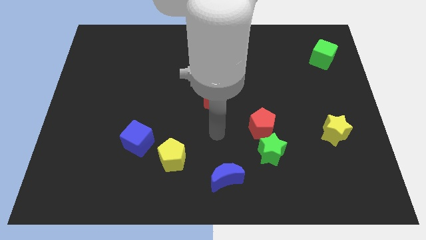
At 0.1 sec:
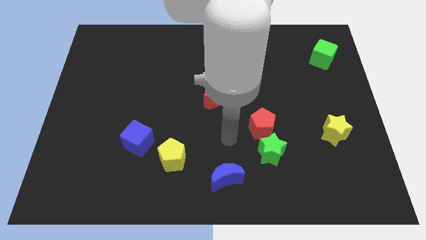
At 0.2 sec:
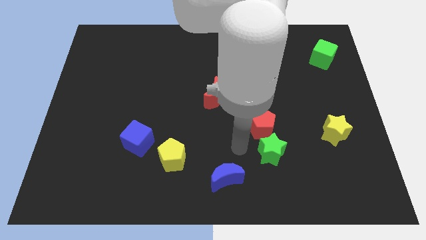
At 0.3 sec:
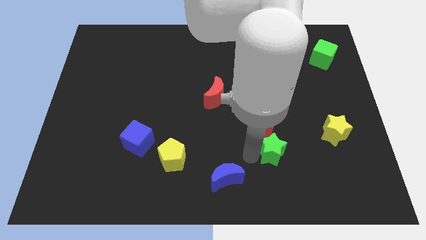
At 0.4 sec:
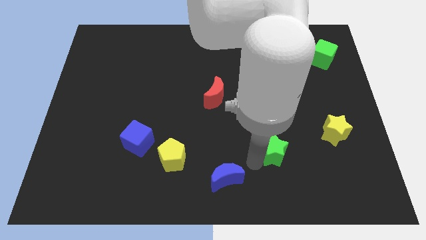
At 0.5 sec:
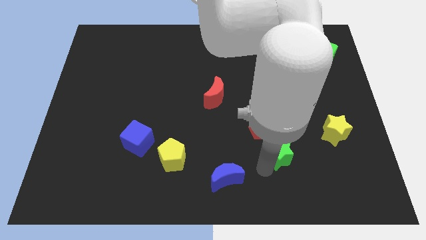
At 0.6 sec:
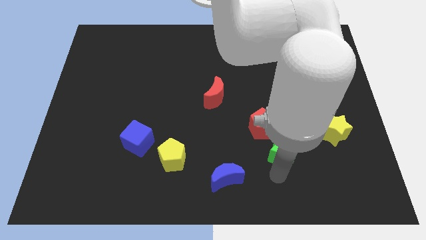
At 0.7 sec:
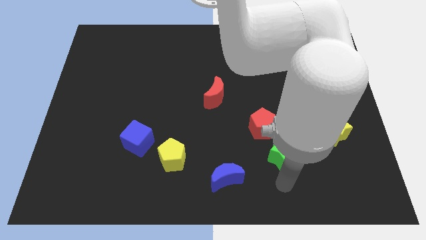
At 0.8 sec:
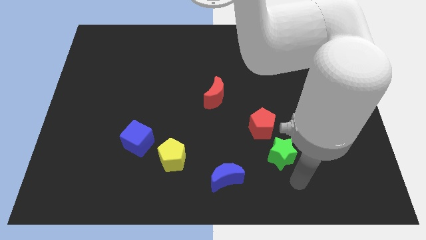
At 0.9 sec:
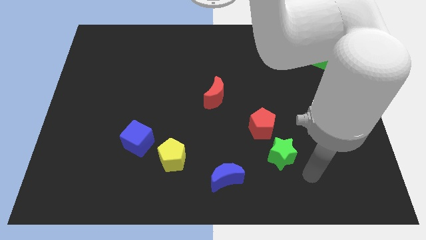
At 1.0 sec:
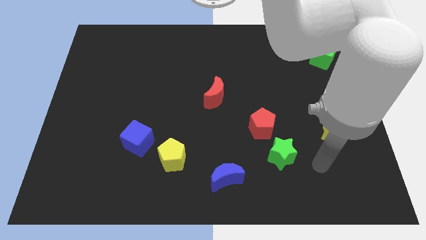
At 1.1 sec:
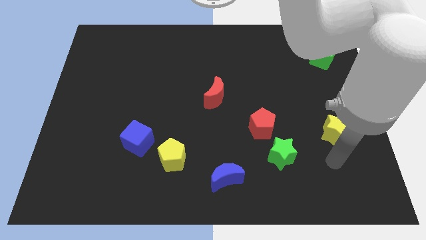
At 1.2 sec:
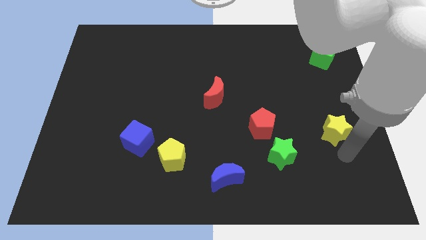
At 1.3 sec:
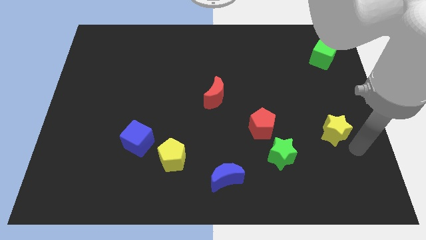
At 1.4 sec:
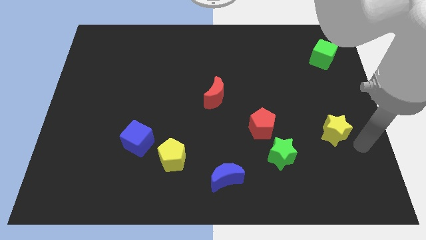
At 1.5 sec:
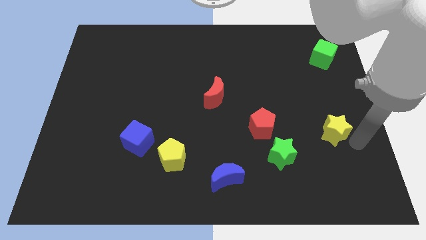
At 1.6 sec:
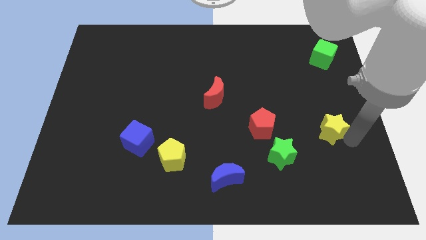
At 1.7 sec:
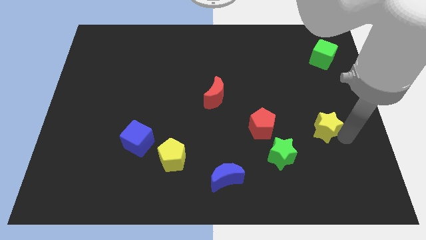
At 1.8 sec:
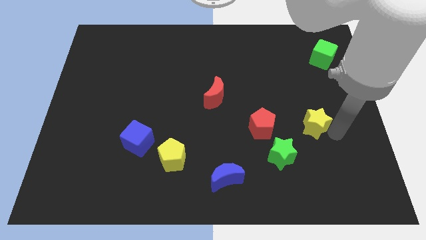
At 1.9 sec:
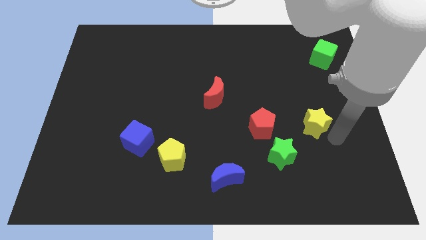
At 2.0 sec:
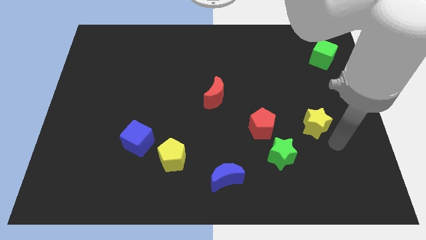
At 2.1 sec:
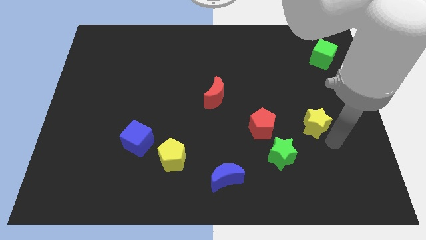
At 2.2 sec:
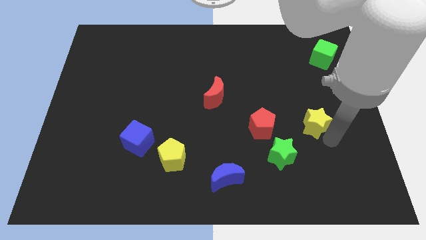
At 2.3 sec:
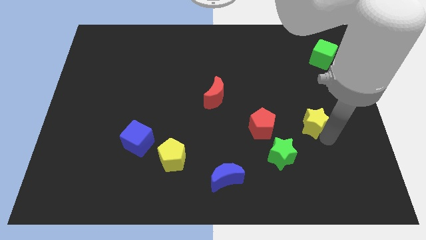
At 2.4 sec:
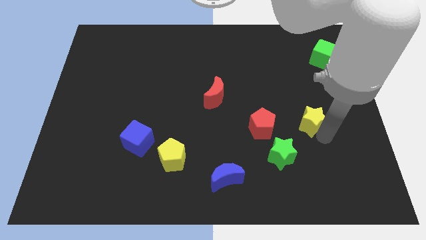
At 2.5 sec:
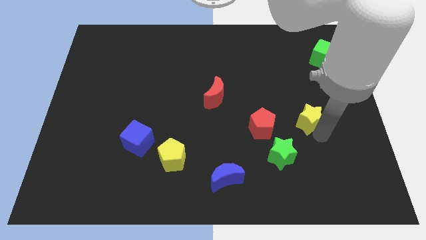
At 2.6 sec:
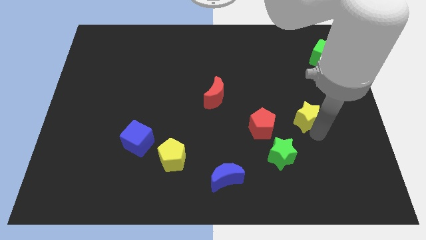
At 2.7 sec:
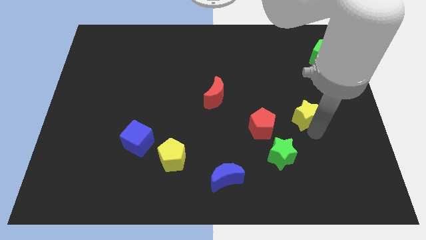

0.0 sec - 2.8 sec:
slightly slide the yellow star up and left

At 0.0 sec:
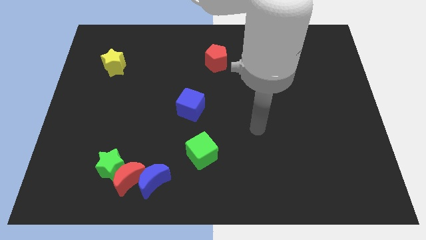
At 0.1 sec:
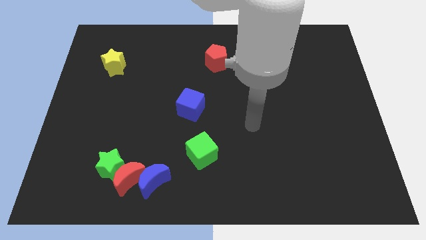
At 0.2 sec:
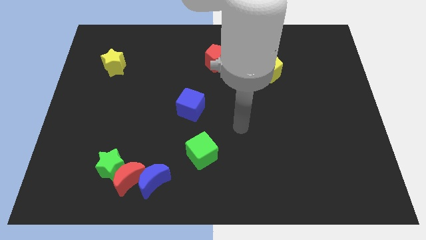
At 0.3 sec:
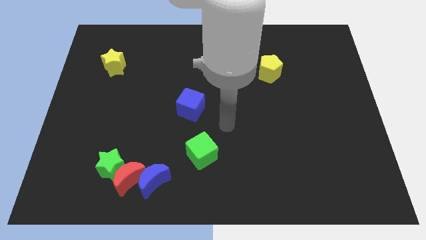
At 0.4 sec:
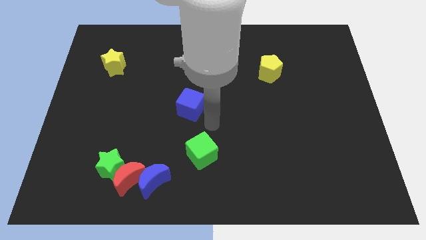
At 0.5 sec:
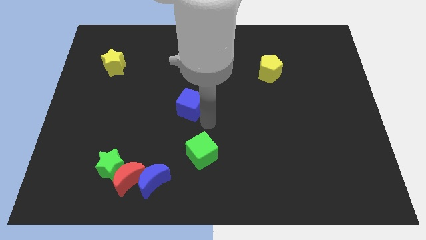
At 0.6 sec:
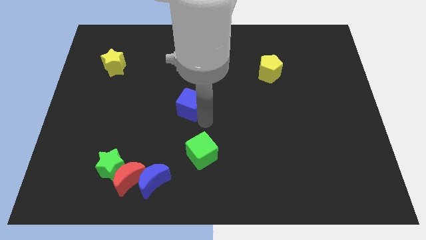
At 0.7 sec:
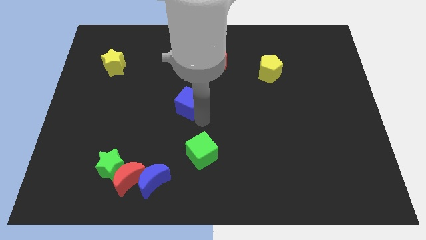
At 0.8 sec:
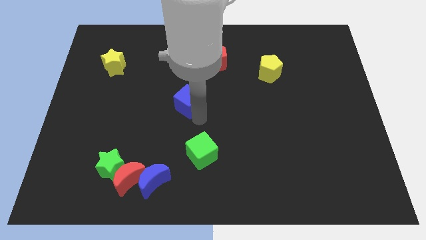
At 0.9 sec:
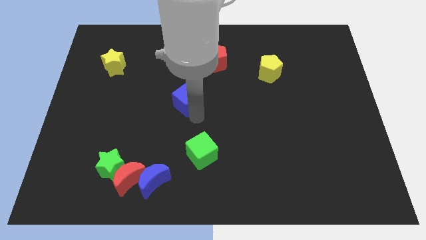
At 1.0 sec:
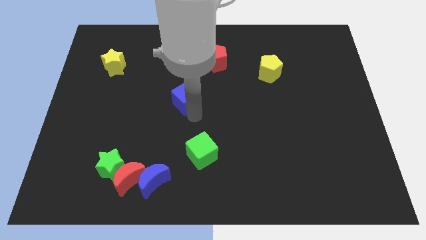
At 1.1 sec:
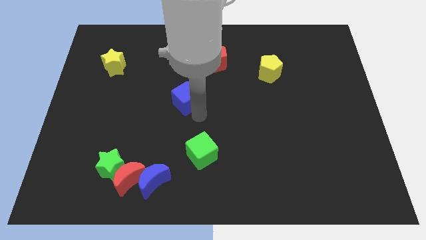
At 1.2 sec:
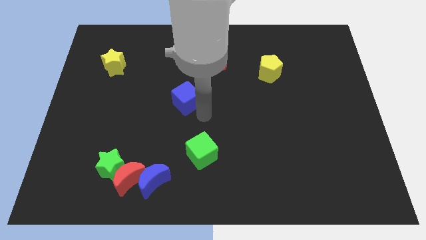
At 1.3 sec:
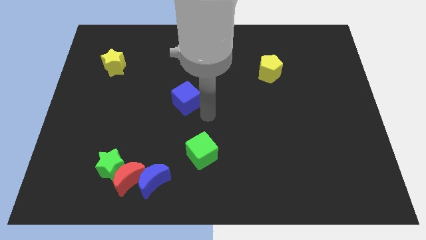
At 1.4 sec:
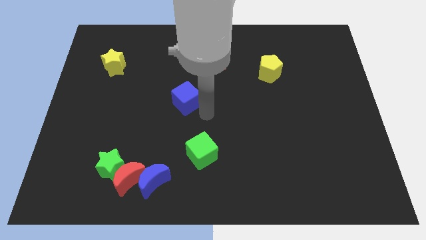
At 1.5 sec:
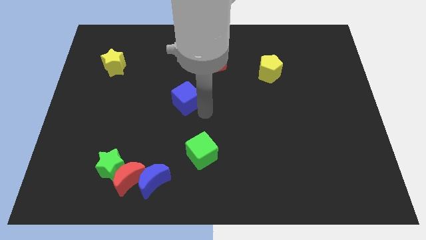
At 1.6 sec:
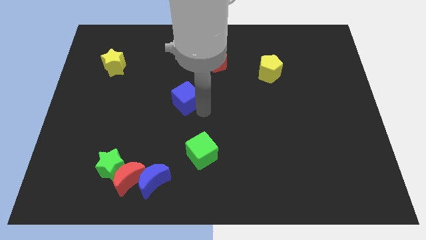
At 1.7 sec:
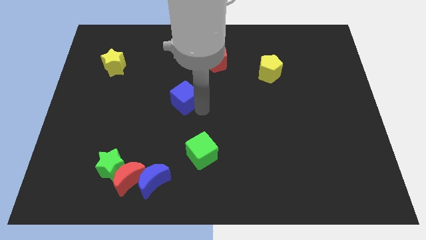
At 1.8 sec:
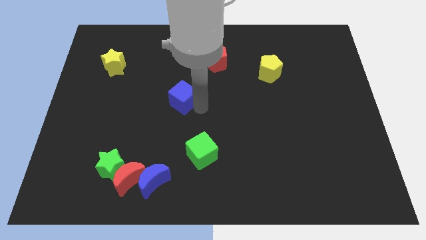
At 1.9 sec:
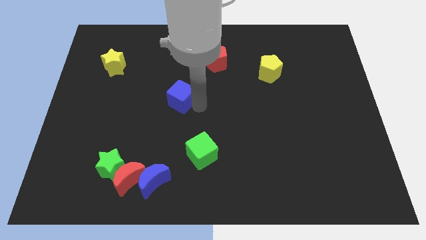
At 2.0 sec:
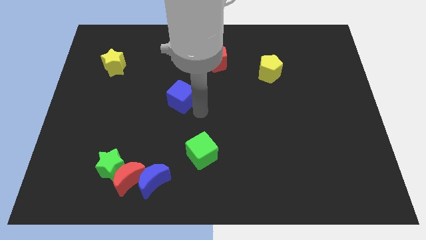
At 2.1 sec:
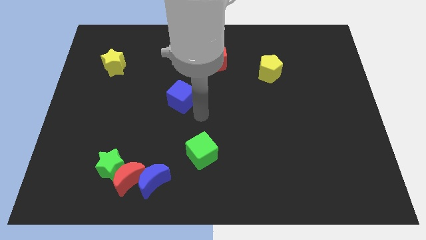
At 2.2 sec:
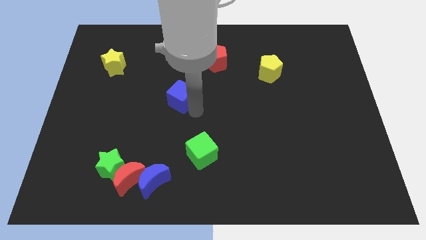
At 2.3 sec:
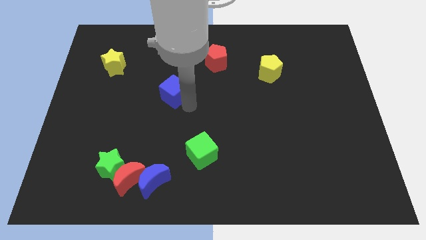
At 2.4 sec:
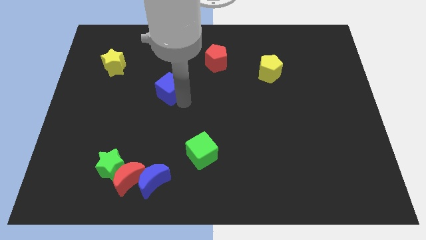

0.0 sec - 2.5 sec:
slightly move the blue cube upwards and to the left diagonally

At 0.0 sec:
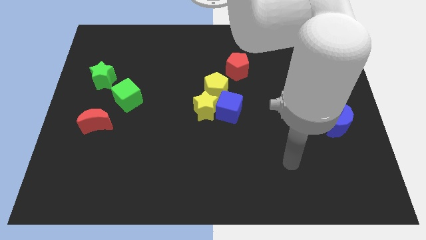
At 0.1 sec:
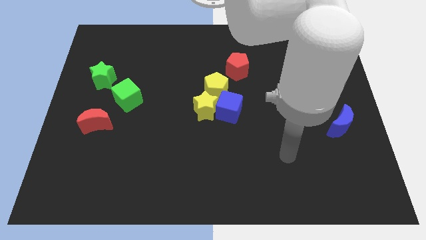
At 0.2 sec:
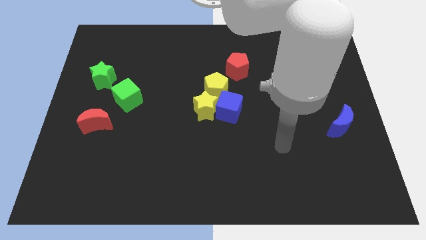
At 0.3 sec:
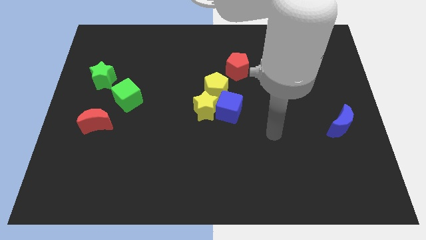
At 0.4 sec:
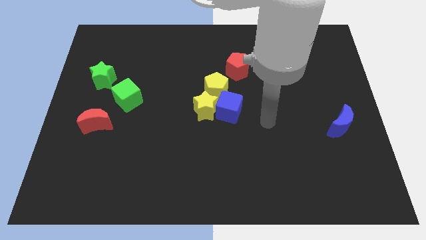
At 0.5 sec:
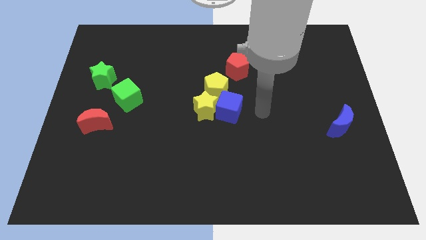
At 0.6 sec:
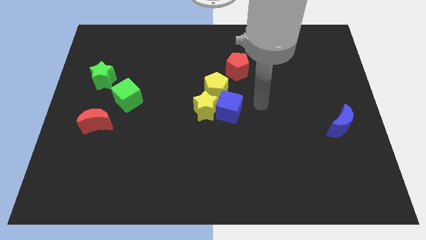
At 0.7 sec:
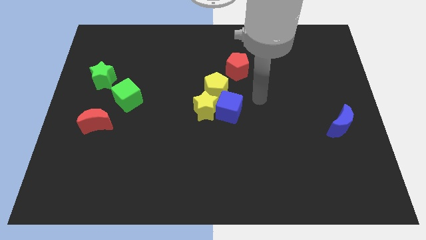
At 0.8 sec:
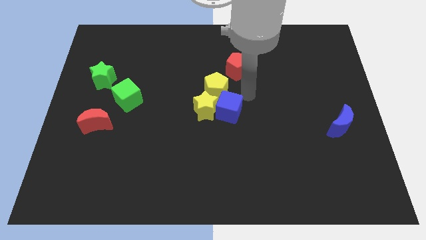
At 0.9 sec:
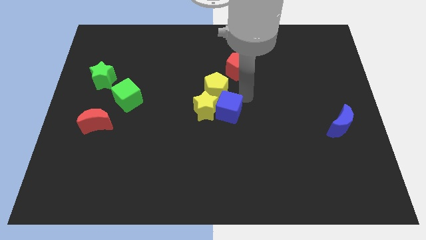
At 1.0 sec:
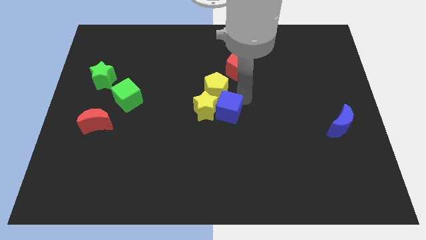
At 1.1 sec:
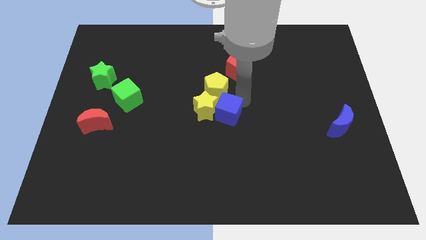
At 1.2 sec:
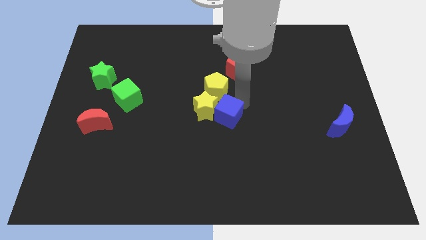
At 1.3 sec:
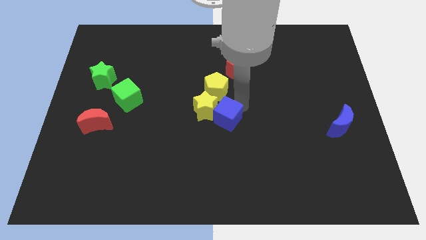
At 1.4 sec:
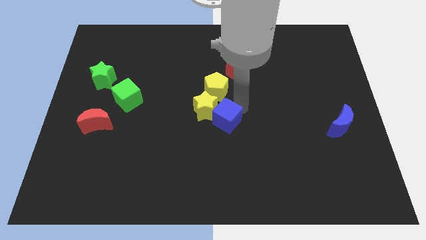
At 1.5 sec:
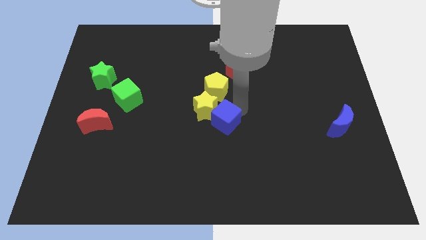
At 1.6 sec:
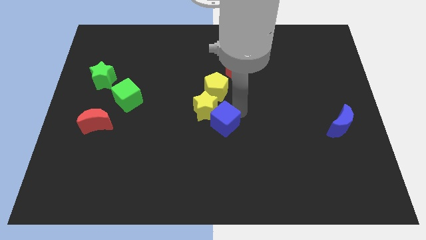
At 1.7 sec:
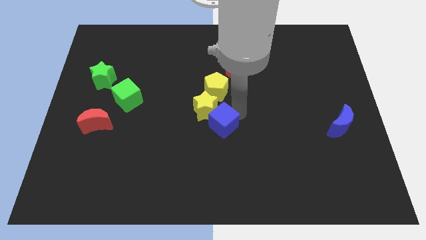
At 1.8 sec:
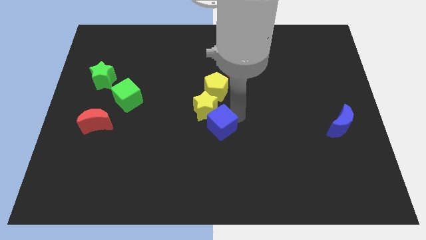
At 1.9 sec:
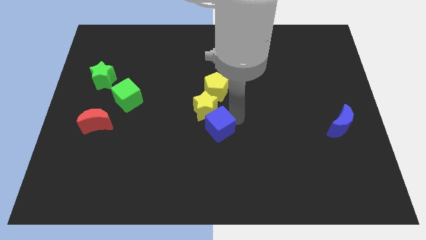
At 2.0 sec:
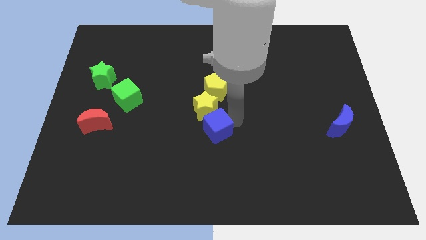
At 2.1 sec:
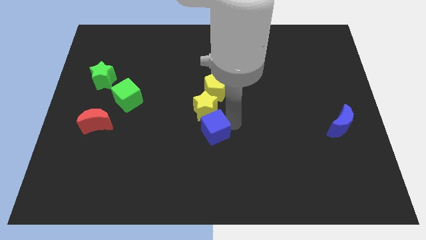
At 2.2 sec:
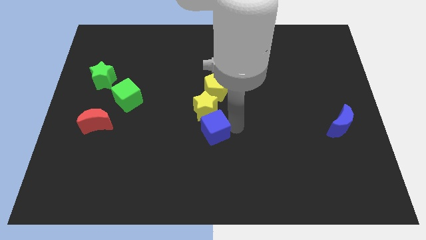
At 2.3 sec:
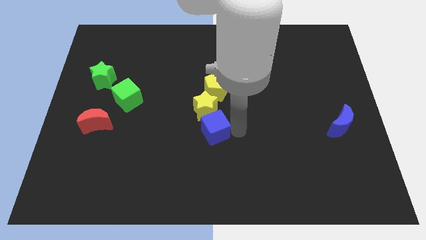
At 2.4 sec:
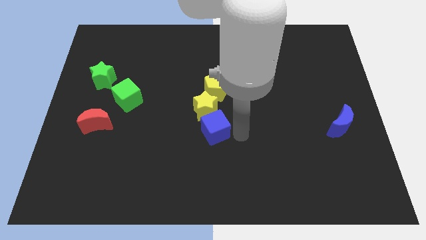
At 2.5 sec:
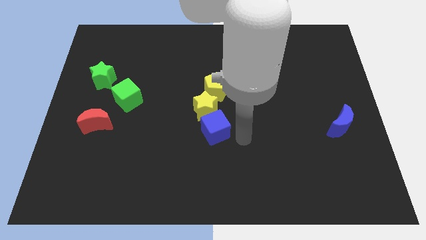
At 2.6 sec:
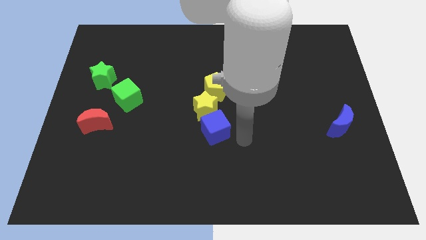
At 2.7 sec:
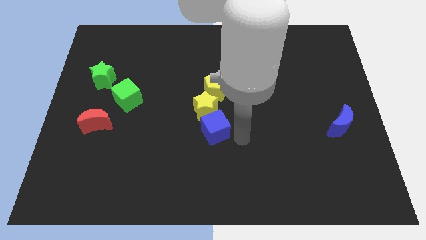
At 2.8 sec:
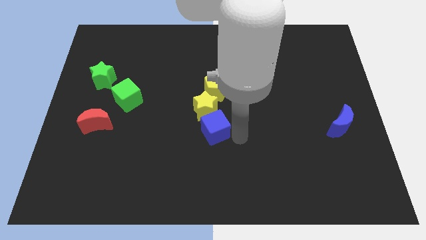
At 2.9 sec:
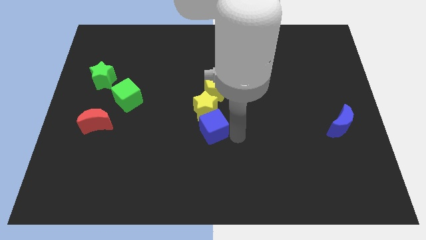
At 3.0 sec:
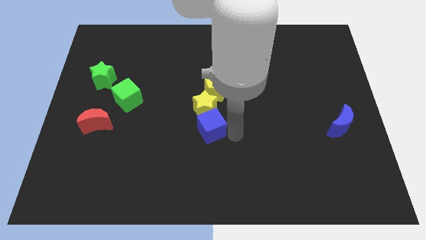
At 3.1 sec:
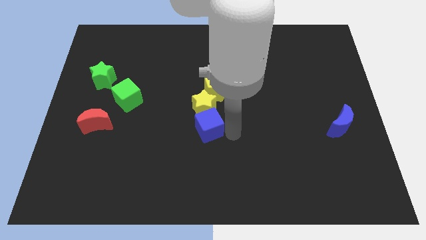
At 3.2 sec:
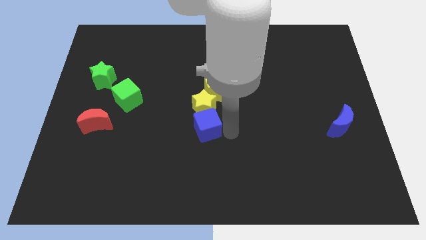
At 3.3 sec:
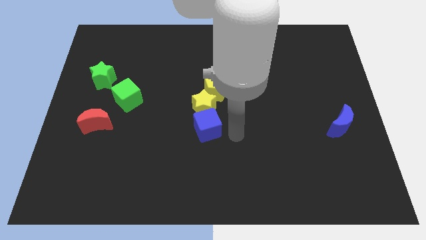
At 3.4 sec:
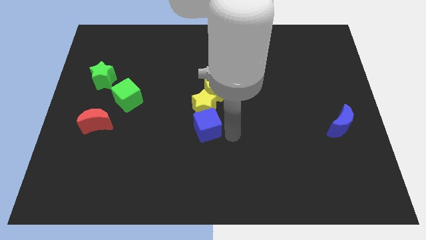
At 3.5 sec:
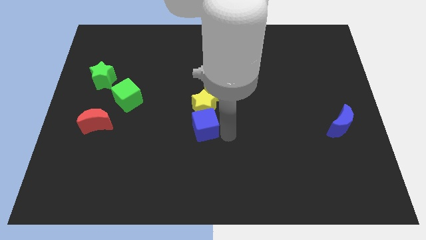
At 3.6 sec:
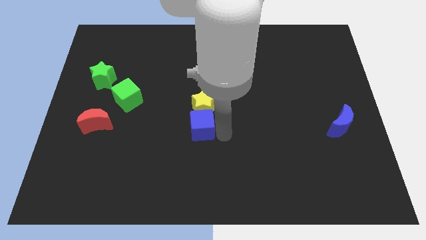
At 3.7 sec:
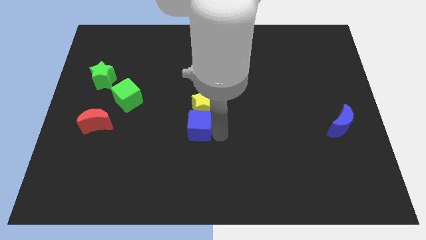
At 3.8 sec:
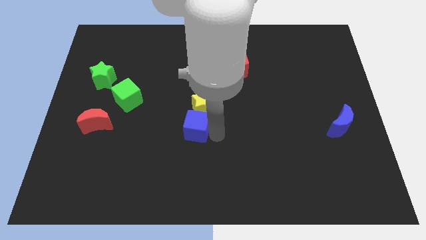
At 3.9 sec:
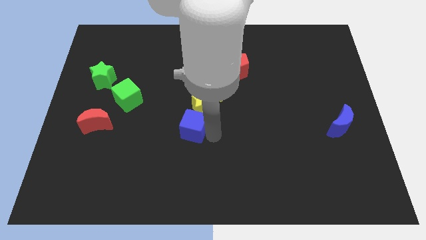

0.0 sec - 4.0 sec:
slightly push the blue cube left
